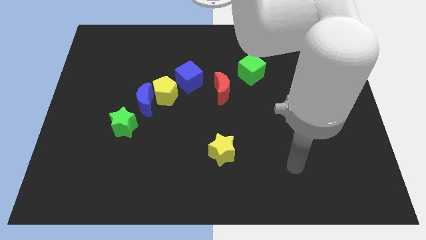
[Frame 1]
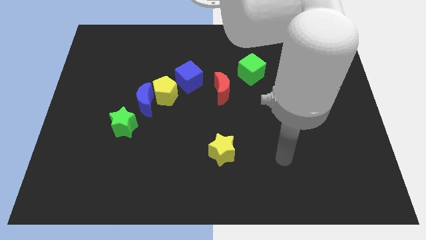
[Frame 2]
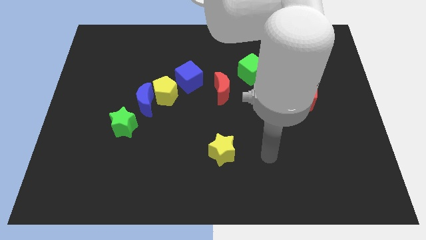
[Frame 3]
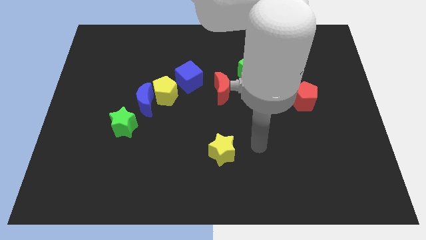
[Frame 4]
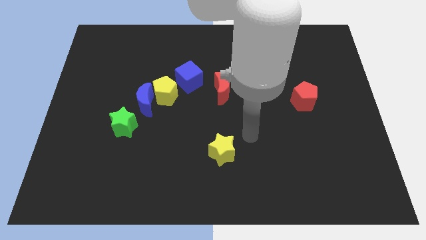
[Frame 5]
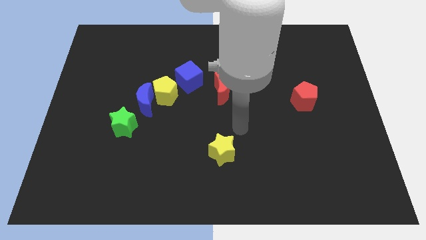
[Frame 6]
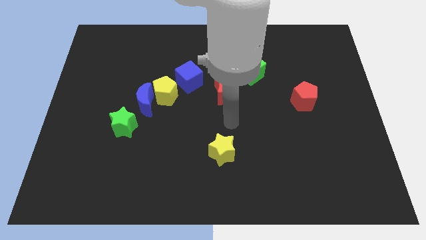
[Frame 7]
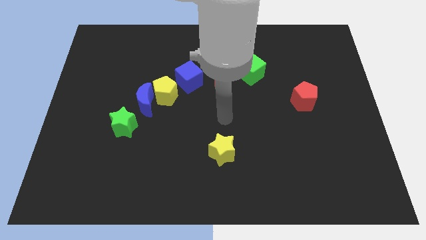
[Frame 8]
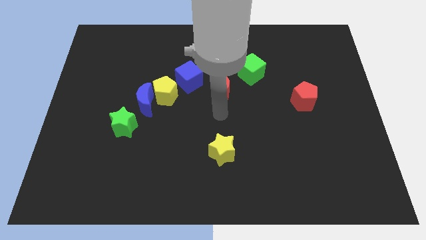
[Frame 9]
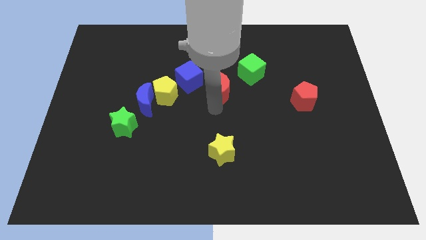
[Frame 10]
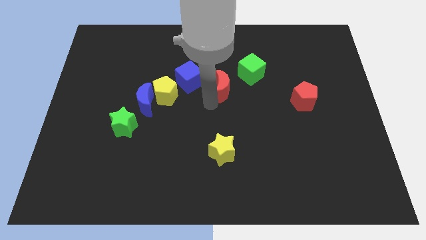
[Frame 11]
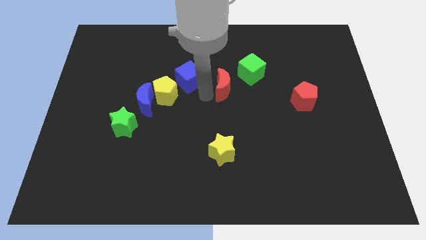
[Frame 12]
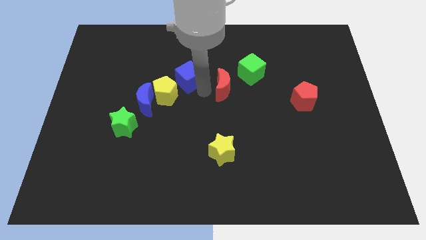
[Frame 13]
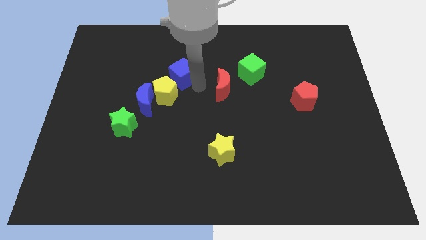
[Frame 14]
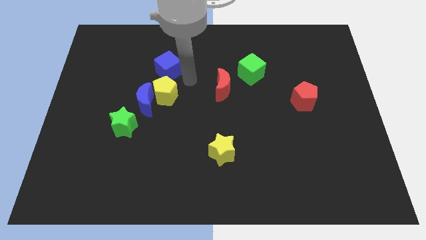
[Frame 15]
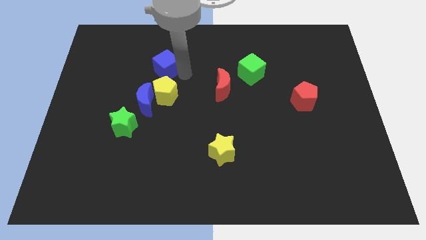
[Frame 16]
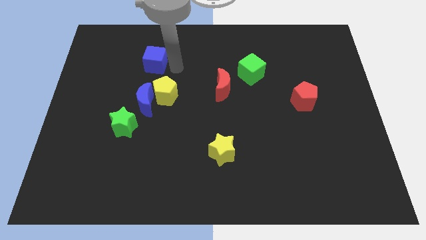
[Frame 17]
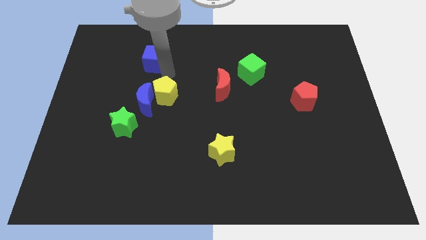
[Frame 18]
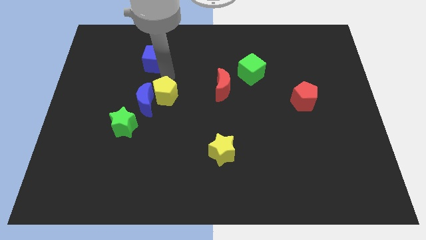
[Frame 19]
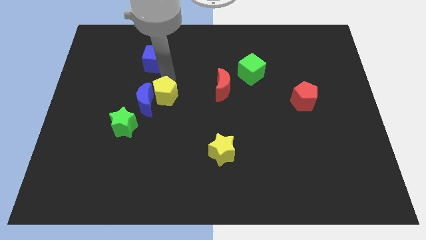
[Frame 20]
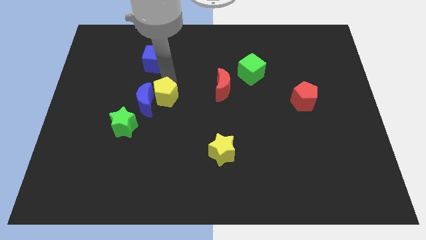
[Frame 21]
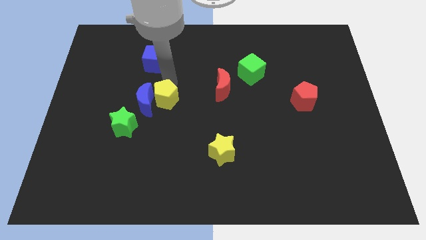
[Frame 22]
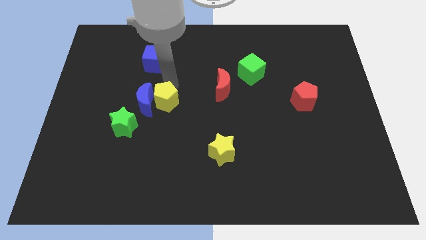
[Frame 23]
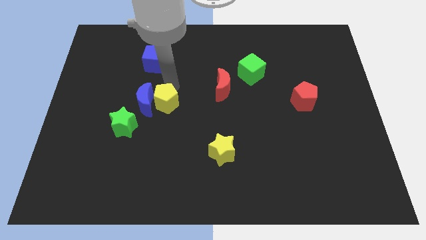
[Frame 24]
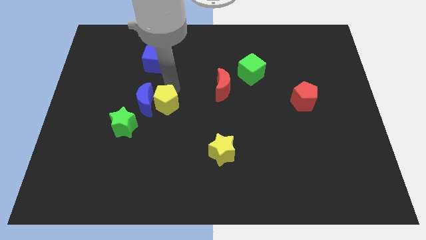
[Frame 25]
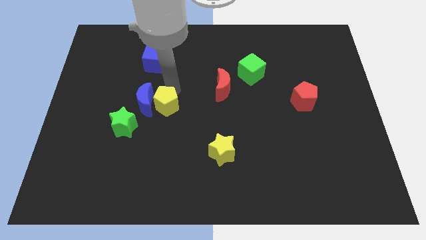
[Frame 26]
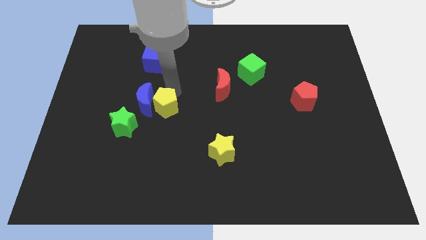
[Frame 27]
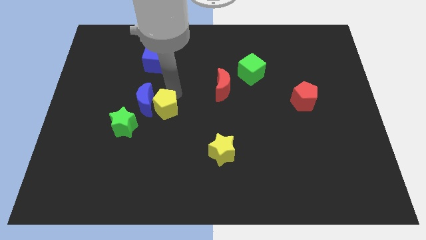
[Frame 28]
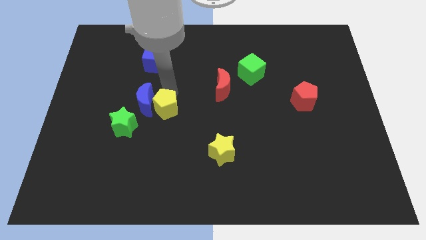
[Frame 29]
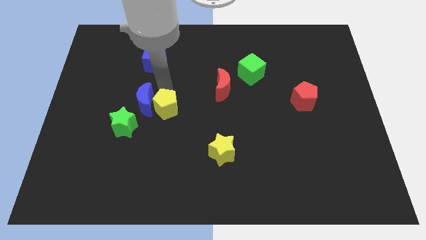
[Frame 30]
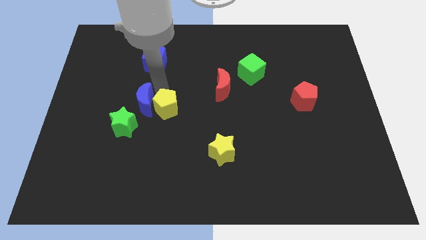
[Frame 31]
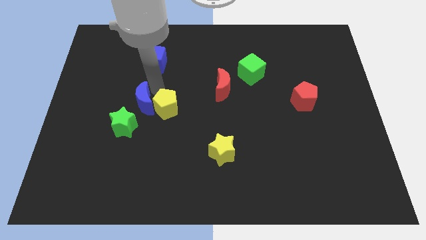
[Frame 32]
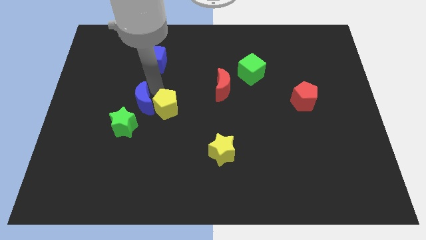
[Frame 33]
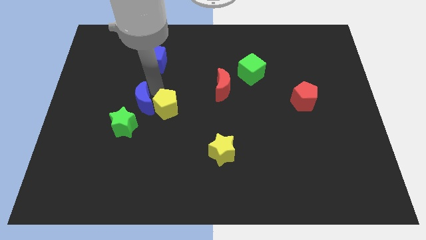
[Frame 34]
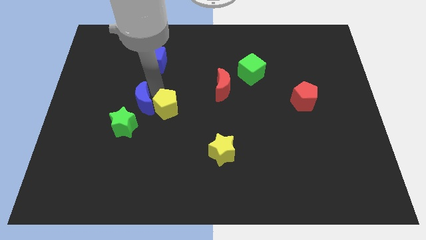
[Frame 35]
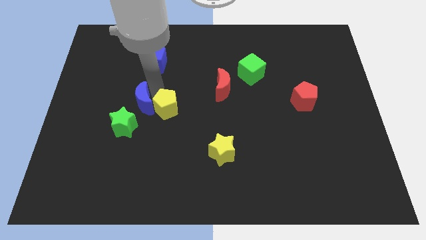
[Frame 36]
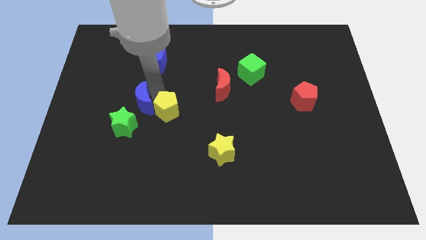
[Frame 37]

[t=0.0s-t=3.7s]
move the yellow pentagon away from the blue moon and blue cube

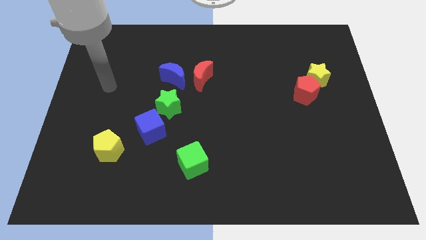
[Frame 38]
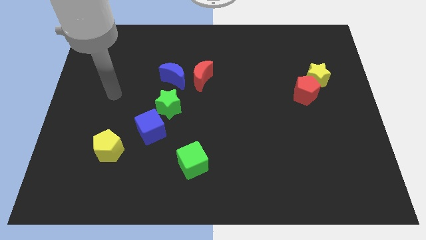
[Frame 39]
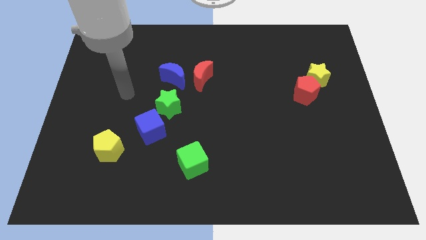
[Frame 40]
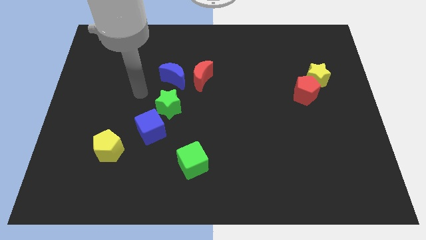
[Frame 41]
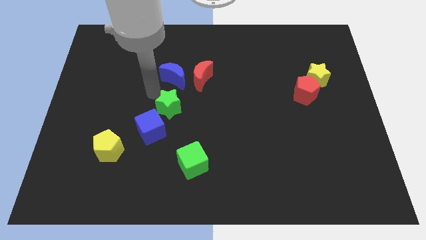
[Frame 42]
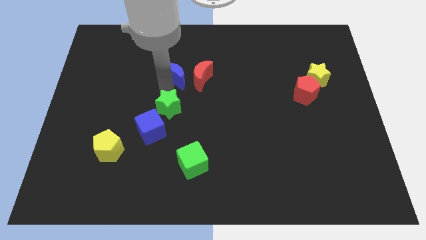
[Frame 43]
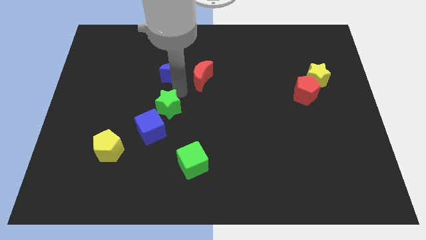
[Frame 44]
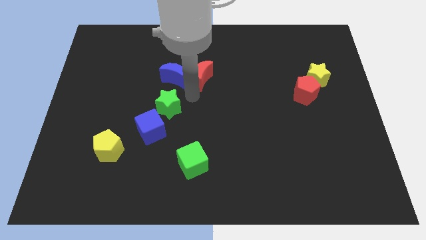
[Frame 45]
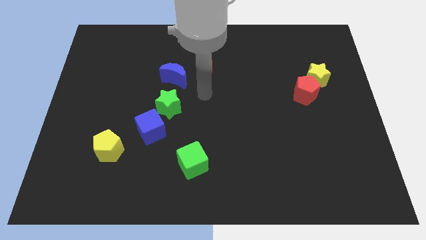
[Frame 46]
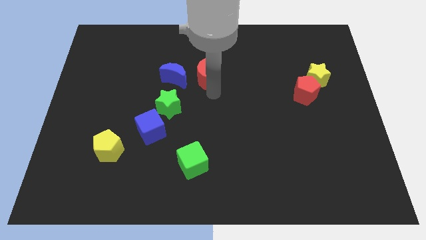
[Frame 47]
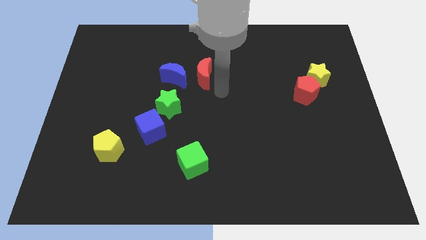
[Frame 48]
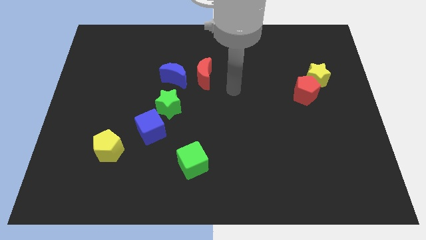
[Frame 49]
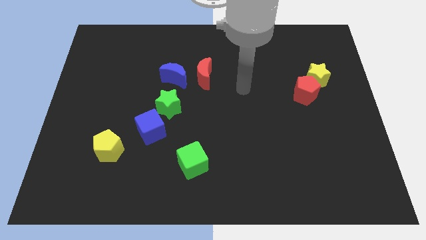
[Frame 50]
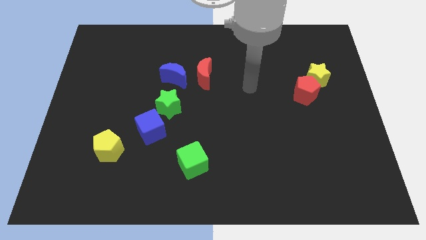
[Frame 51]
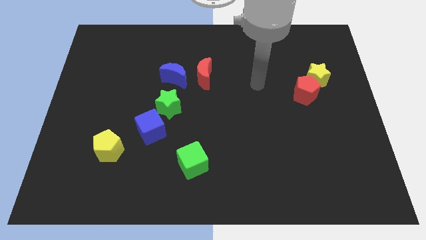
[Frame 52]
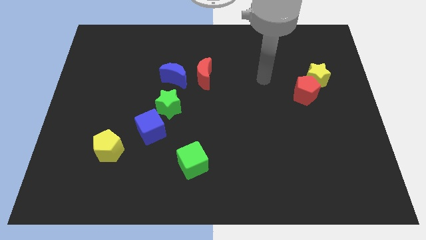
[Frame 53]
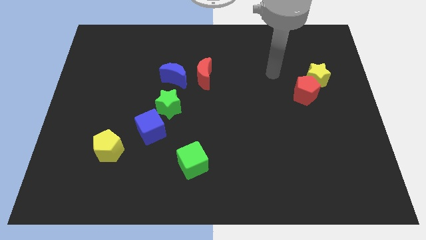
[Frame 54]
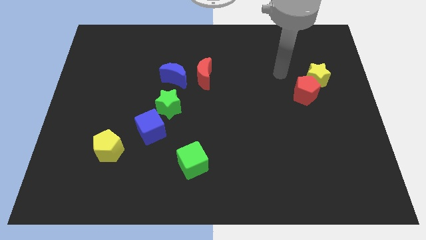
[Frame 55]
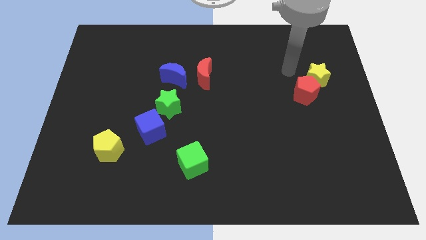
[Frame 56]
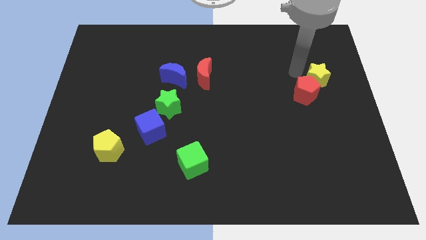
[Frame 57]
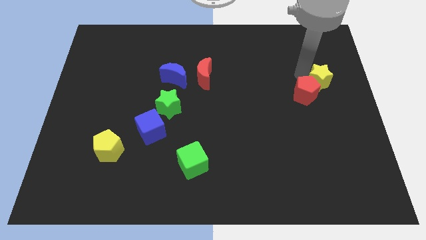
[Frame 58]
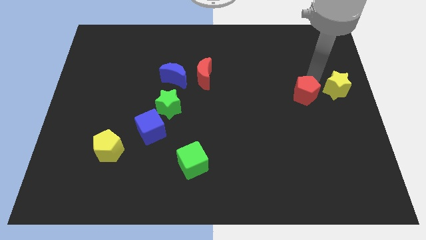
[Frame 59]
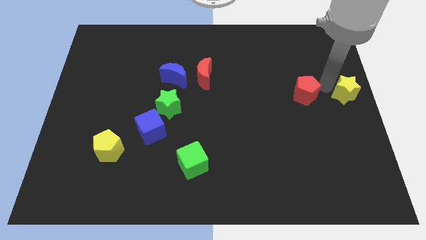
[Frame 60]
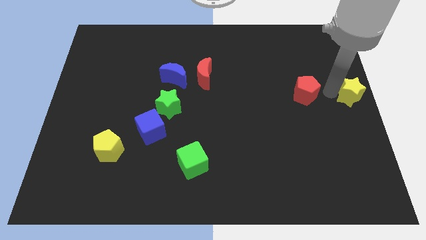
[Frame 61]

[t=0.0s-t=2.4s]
move the red pentagon away from the yellow star

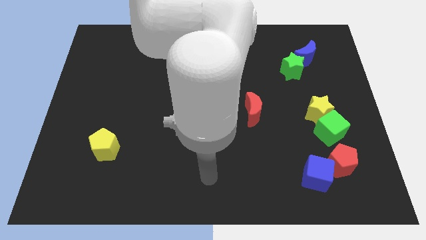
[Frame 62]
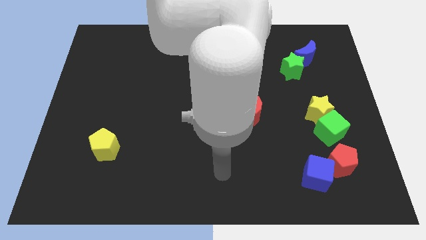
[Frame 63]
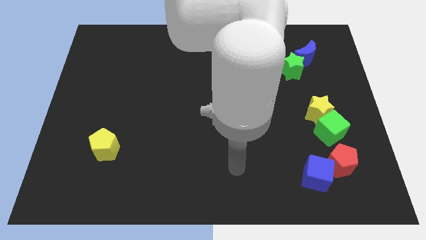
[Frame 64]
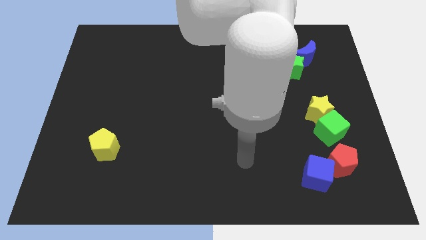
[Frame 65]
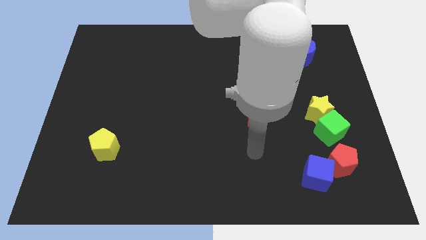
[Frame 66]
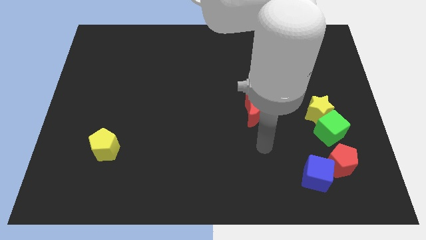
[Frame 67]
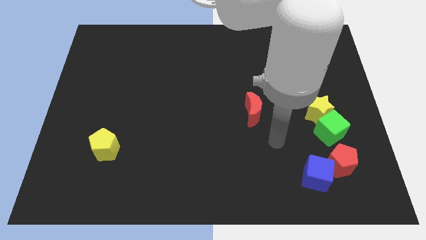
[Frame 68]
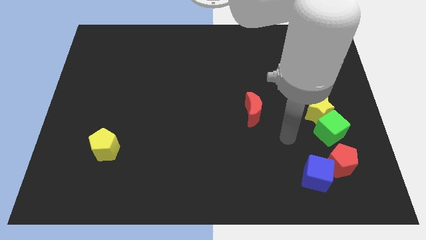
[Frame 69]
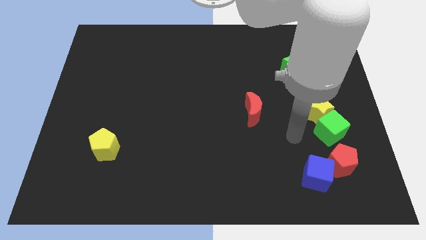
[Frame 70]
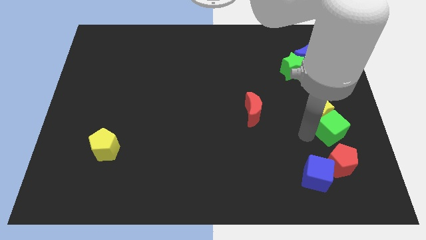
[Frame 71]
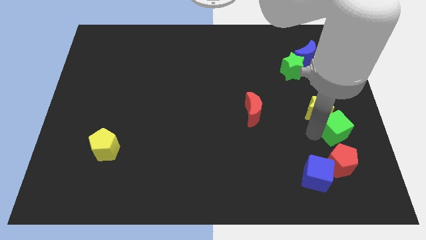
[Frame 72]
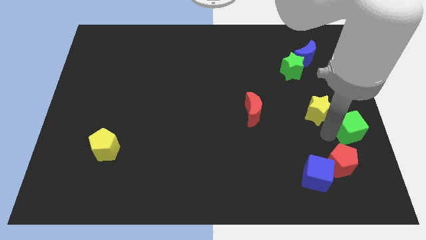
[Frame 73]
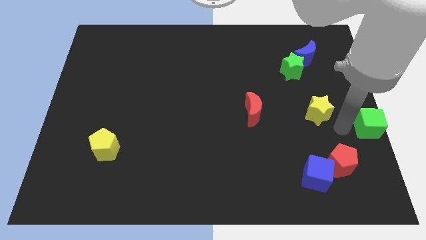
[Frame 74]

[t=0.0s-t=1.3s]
separate the yellow star from the green cube

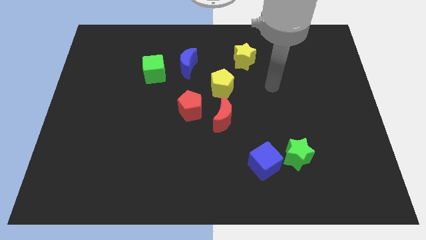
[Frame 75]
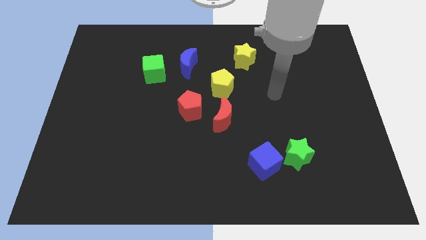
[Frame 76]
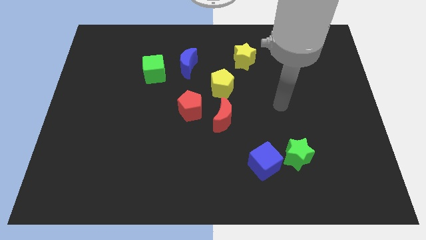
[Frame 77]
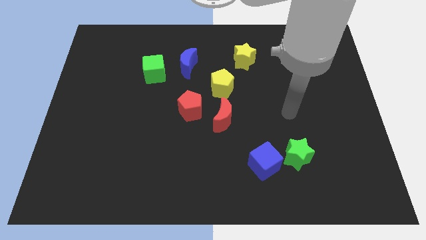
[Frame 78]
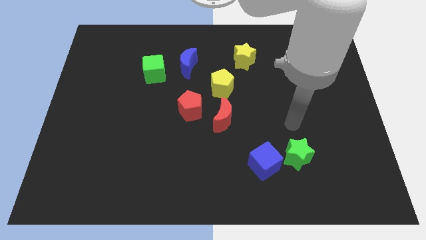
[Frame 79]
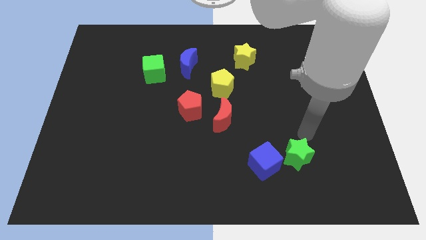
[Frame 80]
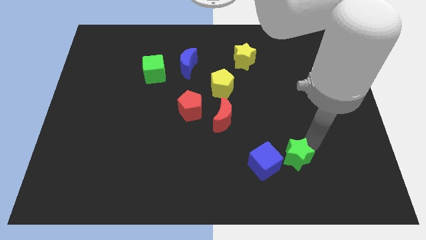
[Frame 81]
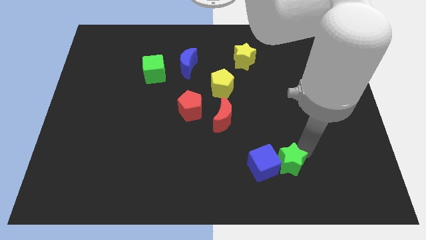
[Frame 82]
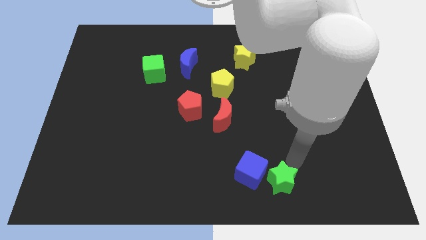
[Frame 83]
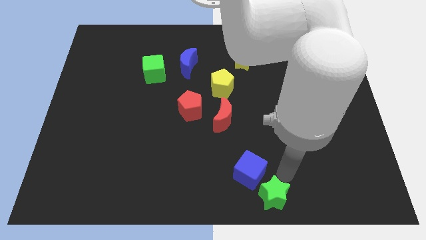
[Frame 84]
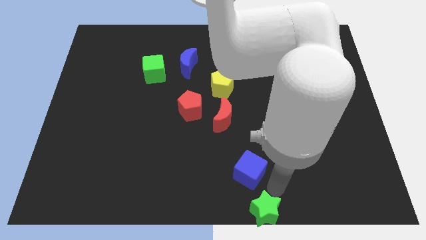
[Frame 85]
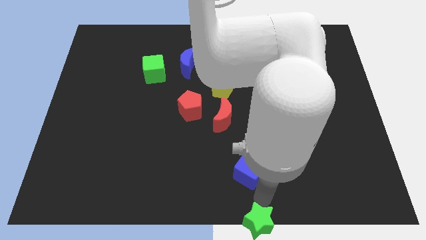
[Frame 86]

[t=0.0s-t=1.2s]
pull the blue cube apart from the green star

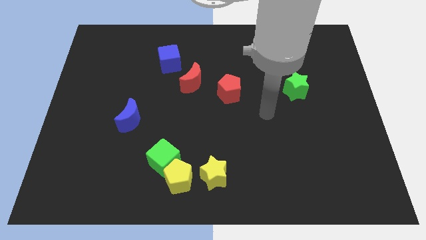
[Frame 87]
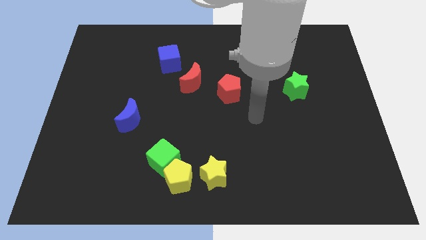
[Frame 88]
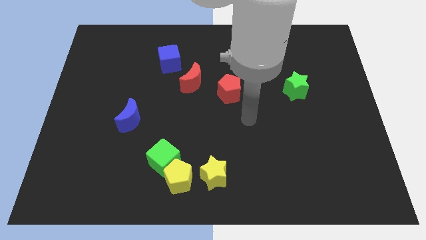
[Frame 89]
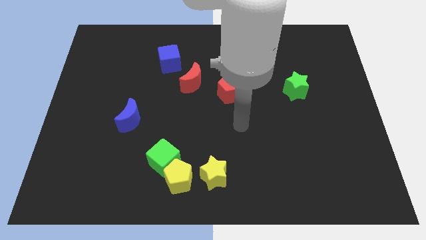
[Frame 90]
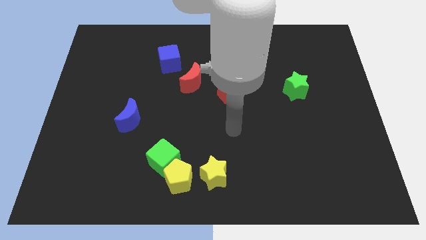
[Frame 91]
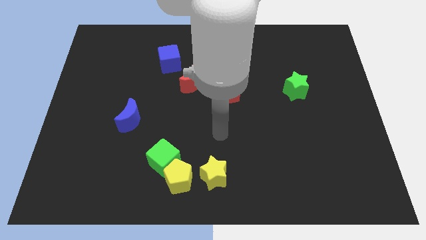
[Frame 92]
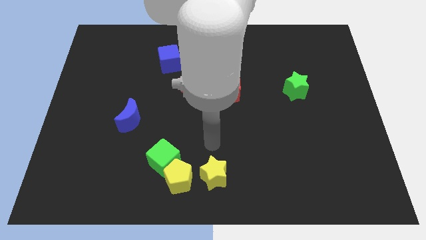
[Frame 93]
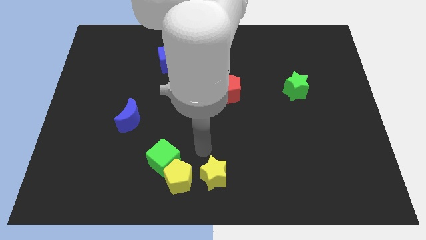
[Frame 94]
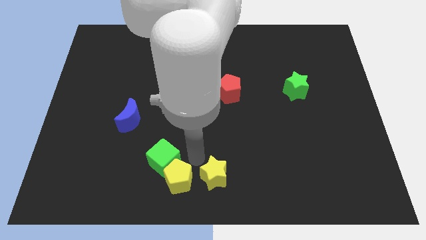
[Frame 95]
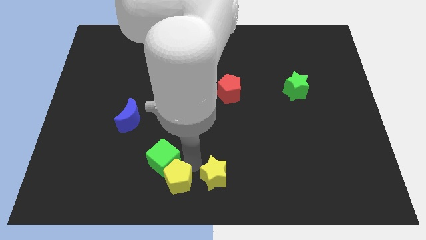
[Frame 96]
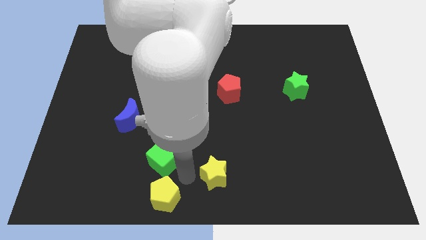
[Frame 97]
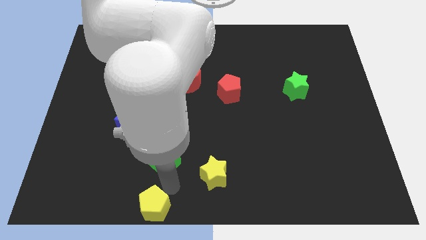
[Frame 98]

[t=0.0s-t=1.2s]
separate the green cube from the yellow pentagon
